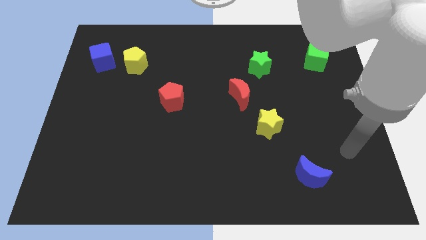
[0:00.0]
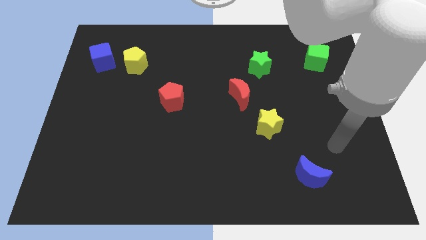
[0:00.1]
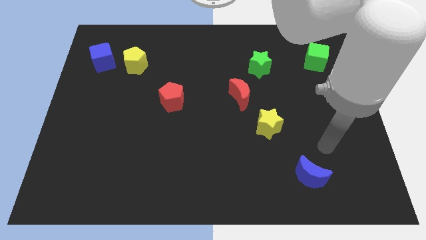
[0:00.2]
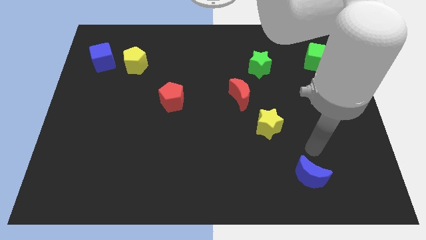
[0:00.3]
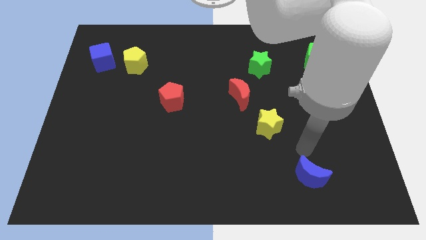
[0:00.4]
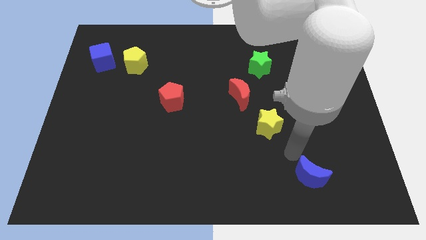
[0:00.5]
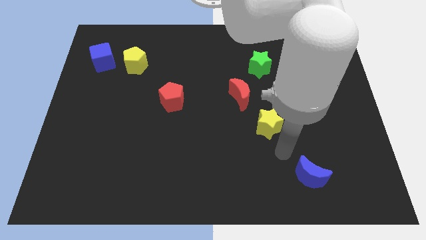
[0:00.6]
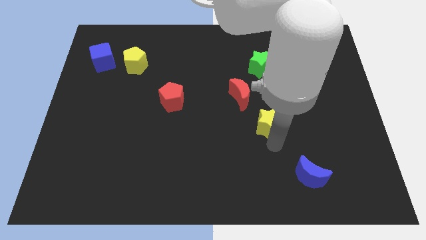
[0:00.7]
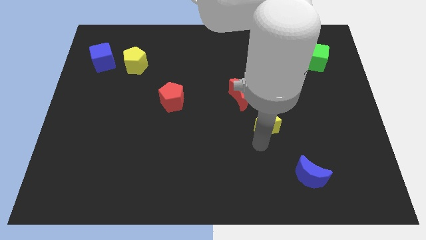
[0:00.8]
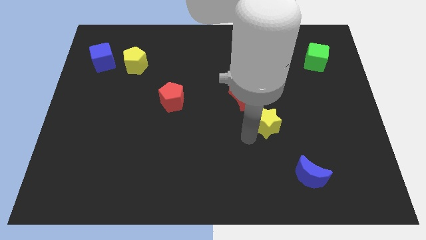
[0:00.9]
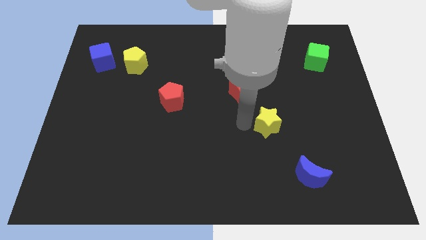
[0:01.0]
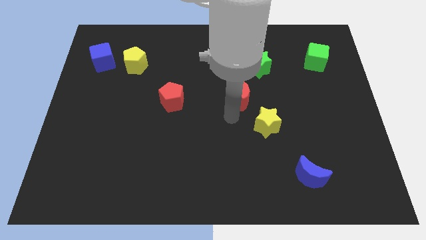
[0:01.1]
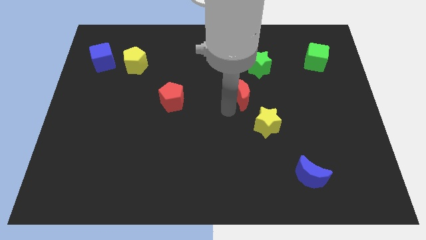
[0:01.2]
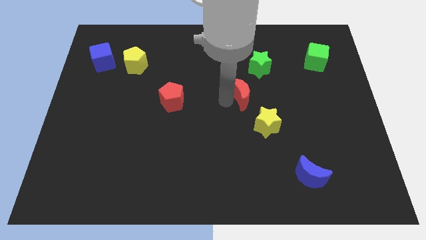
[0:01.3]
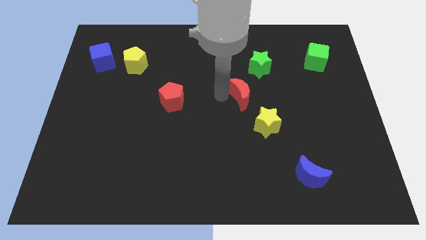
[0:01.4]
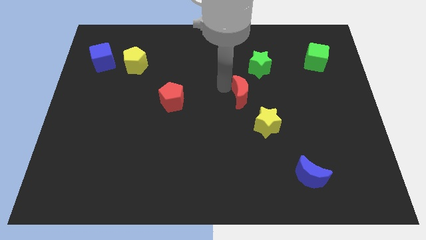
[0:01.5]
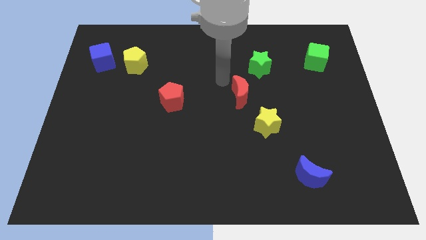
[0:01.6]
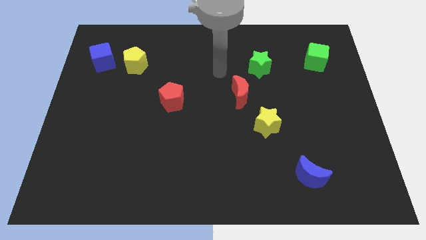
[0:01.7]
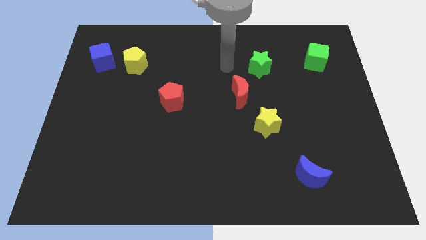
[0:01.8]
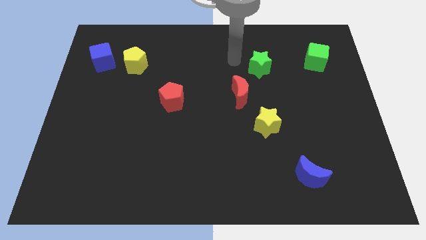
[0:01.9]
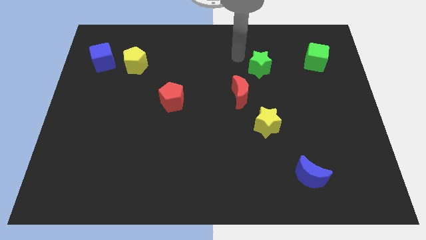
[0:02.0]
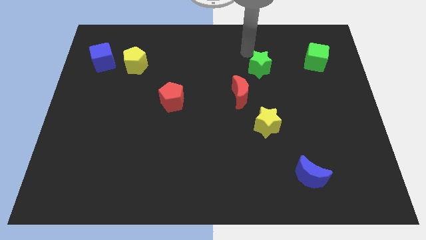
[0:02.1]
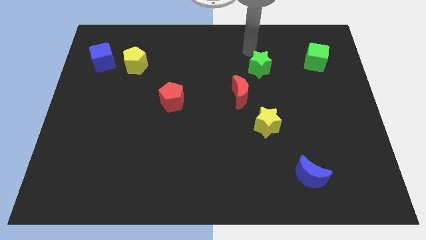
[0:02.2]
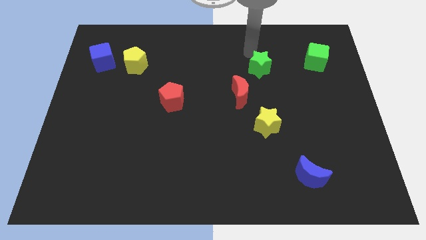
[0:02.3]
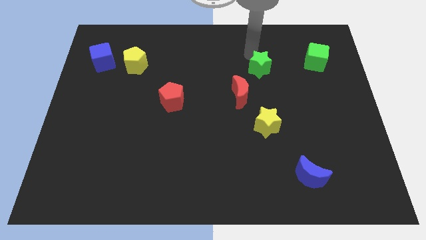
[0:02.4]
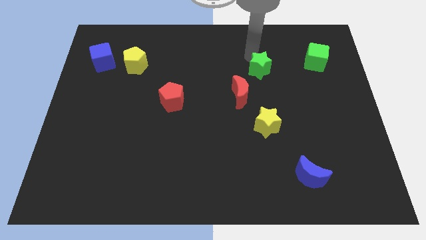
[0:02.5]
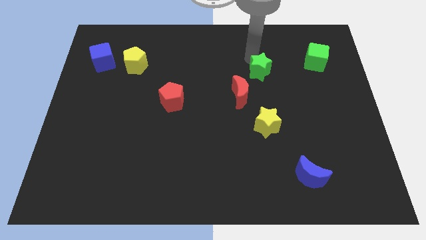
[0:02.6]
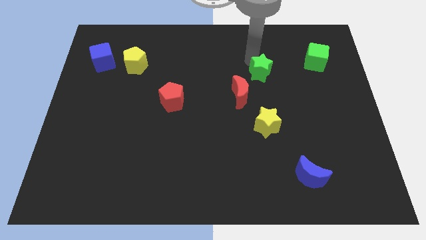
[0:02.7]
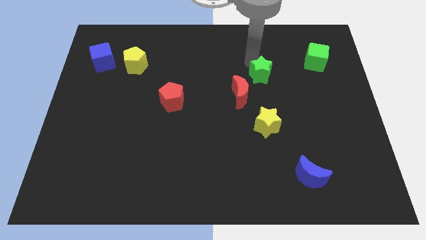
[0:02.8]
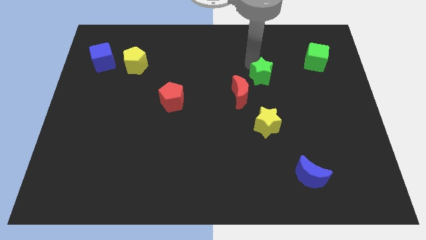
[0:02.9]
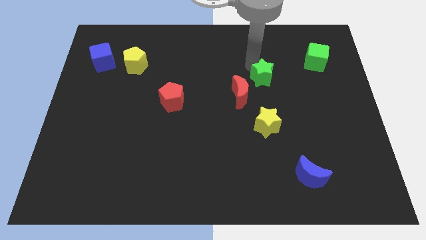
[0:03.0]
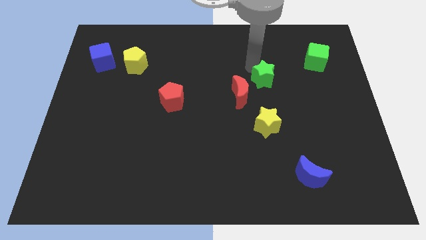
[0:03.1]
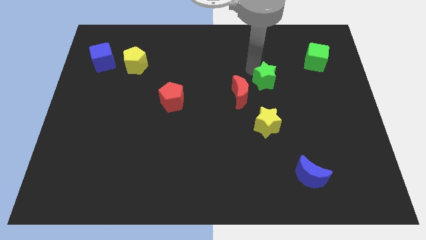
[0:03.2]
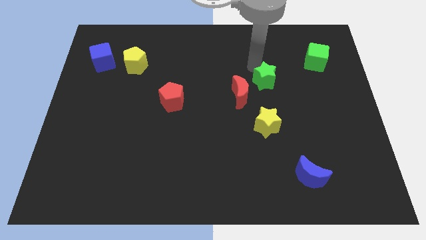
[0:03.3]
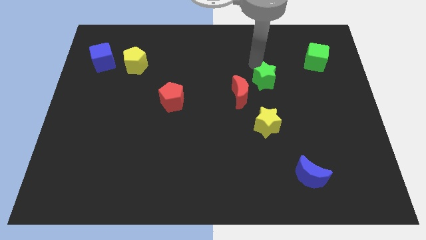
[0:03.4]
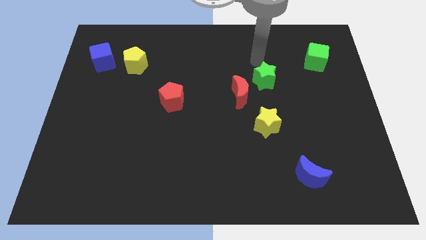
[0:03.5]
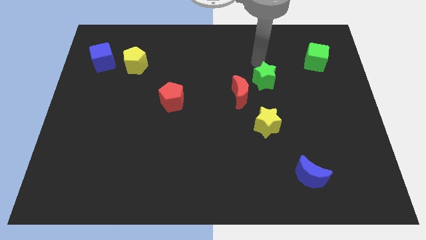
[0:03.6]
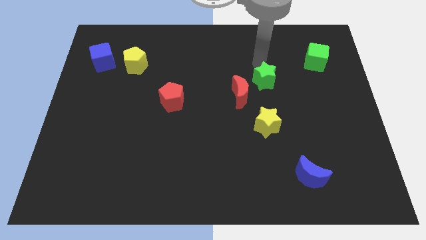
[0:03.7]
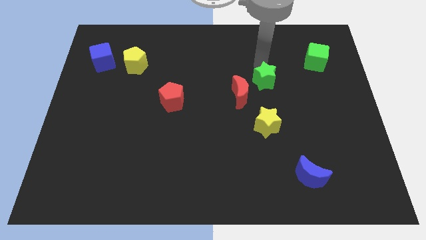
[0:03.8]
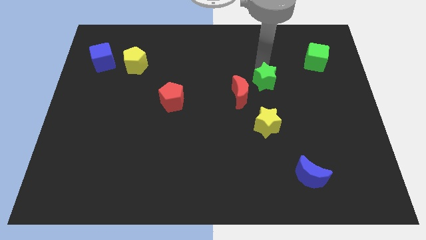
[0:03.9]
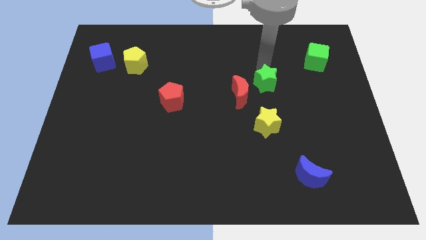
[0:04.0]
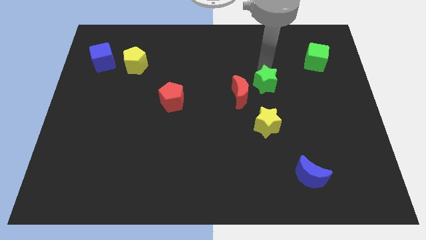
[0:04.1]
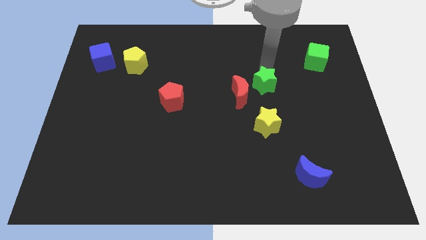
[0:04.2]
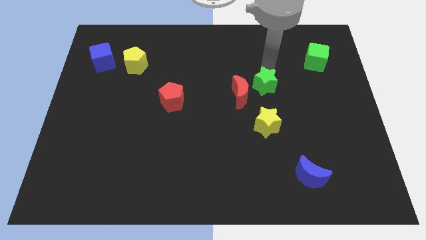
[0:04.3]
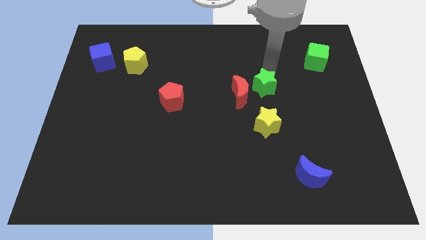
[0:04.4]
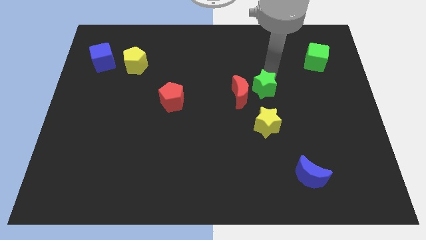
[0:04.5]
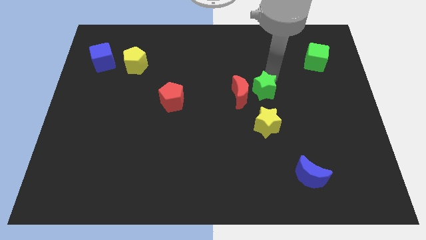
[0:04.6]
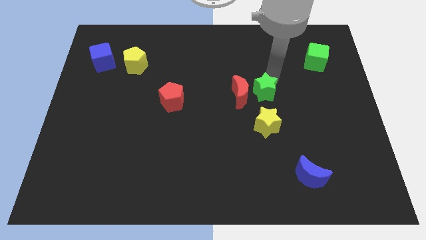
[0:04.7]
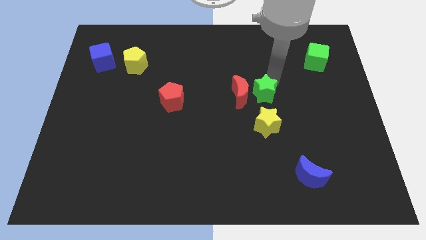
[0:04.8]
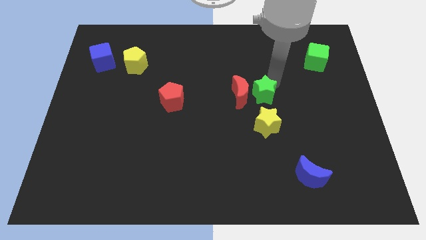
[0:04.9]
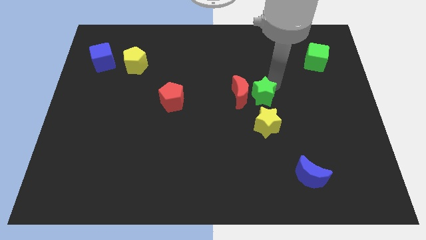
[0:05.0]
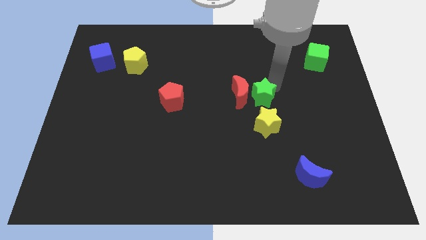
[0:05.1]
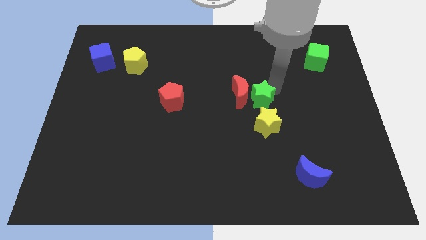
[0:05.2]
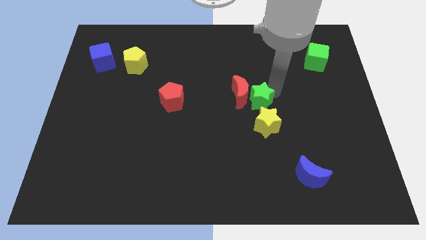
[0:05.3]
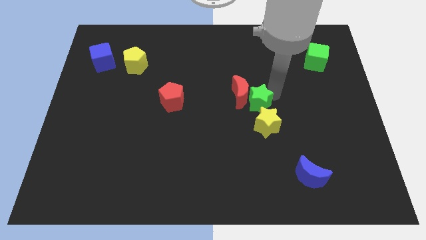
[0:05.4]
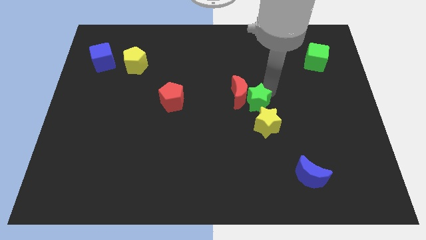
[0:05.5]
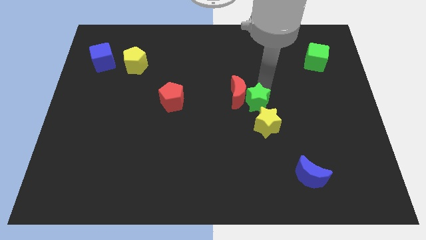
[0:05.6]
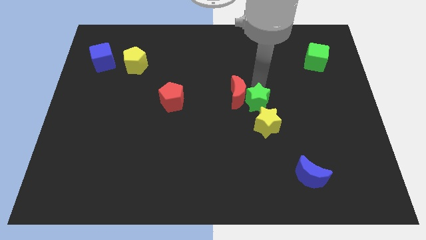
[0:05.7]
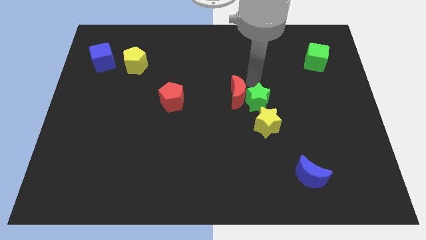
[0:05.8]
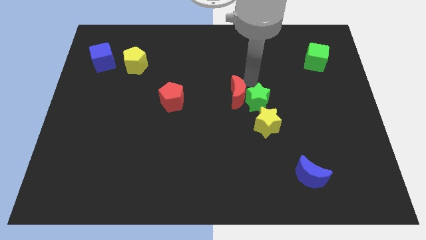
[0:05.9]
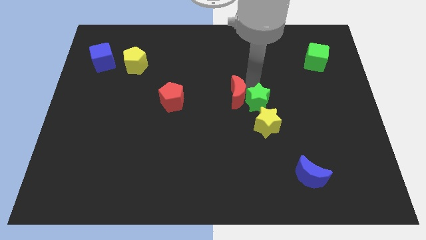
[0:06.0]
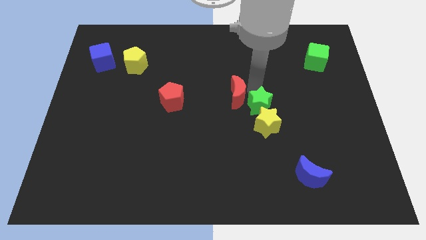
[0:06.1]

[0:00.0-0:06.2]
put the green star towards the yellow star

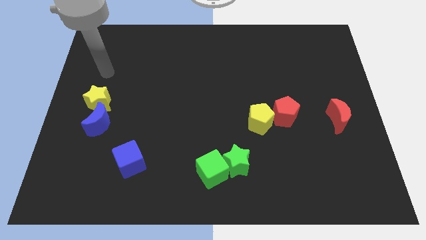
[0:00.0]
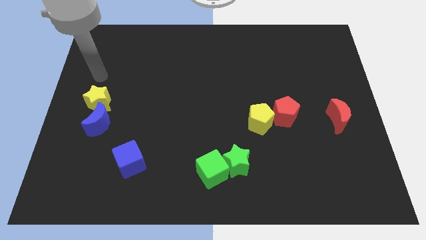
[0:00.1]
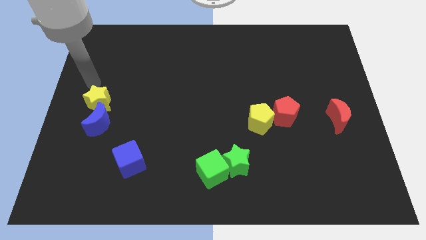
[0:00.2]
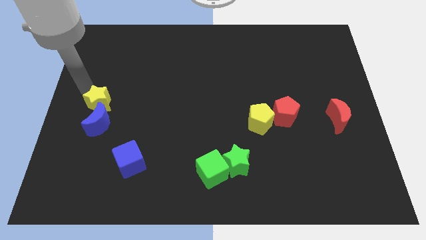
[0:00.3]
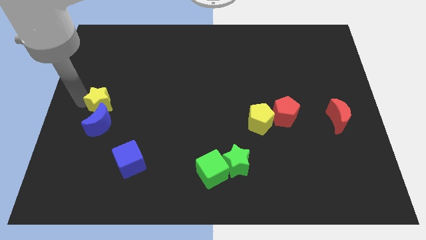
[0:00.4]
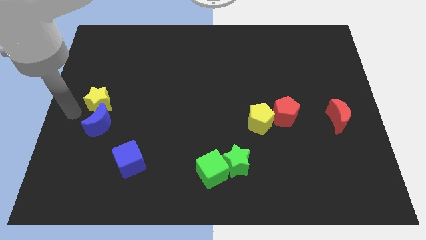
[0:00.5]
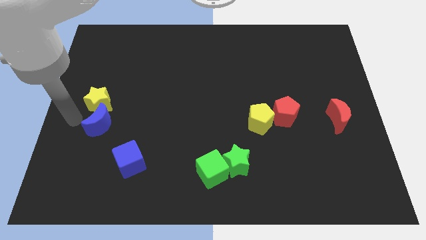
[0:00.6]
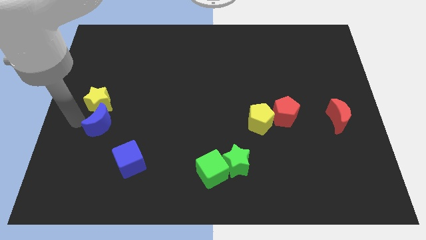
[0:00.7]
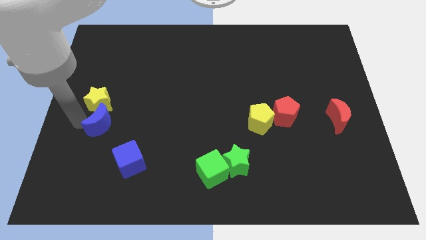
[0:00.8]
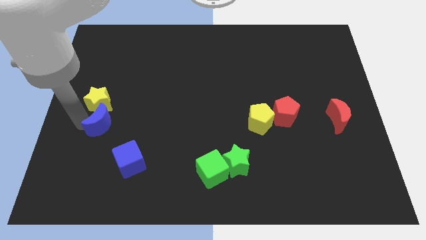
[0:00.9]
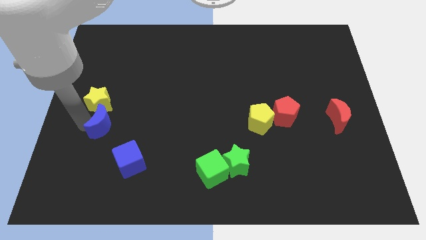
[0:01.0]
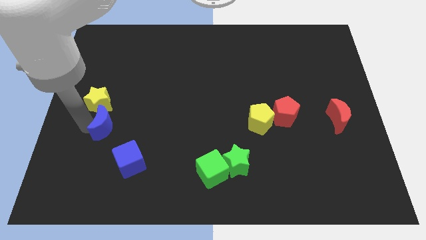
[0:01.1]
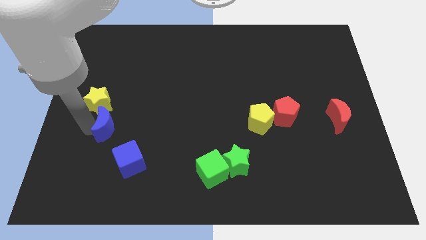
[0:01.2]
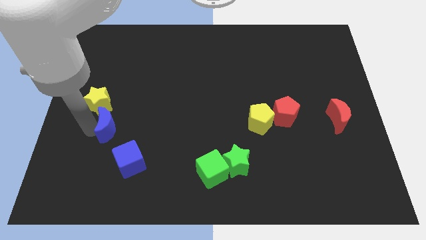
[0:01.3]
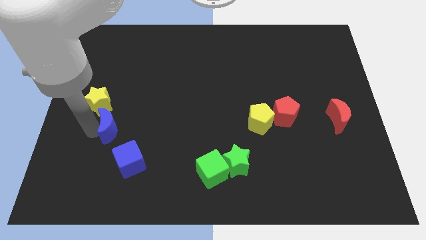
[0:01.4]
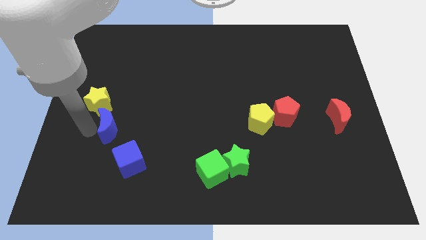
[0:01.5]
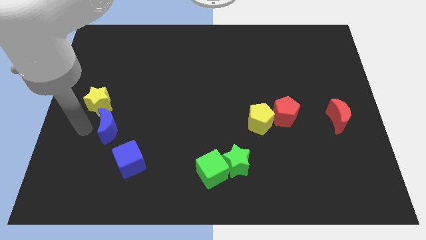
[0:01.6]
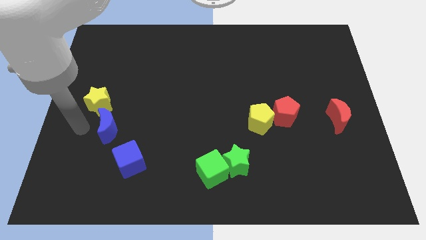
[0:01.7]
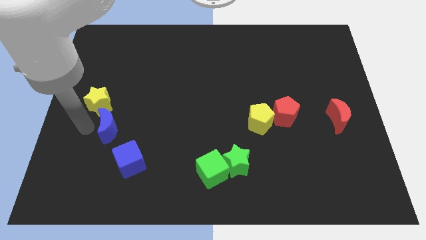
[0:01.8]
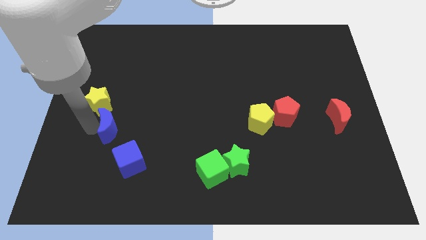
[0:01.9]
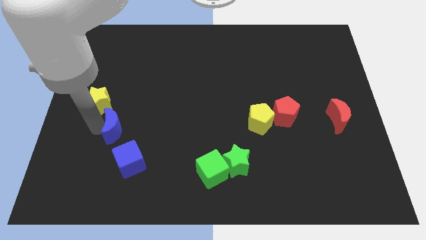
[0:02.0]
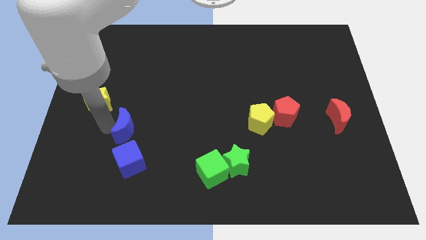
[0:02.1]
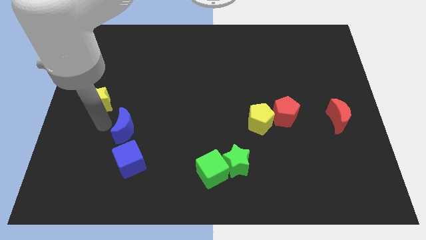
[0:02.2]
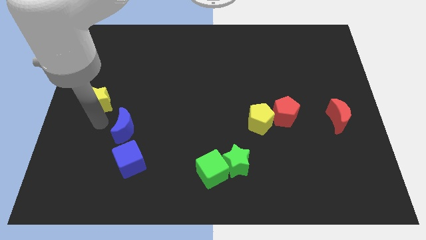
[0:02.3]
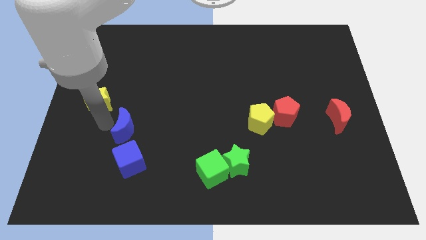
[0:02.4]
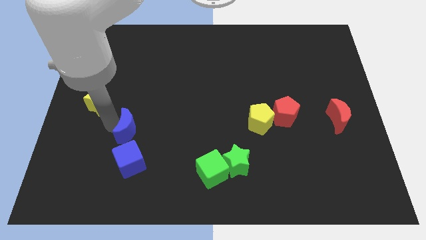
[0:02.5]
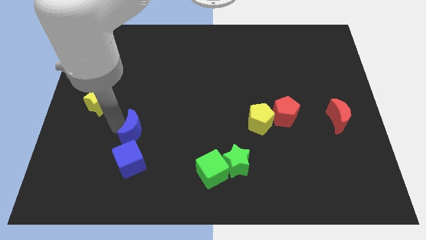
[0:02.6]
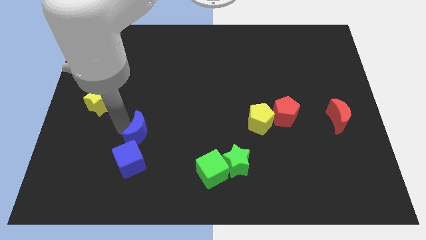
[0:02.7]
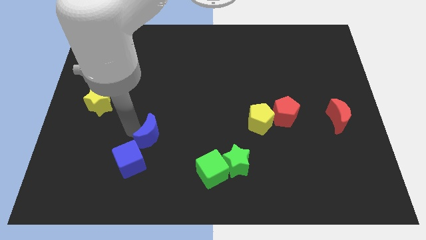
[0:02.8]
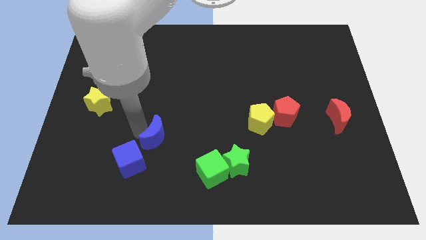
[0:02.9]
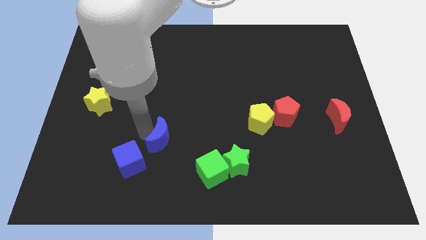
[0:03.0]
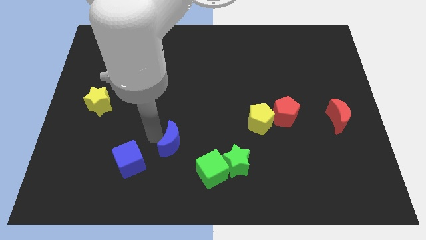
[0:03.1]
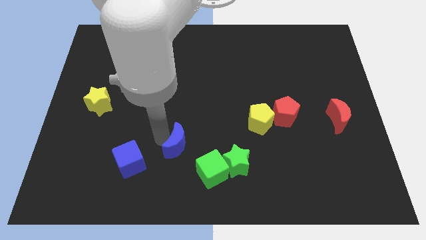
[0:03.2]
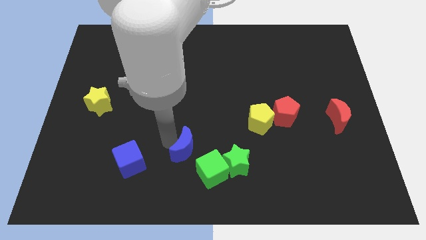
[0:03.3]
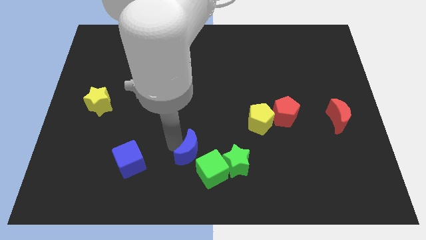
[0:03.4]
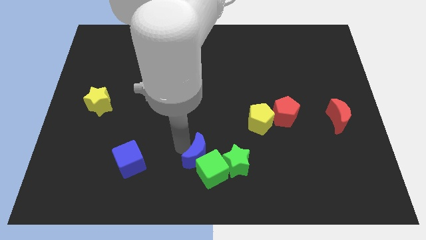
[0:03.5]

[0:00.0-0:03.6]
slide the blue moon towards the green cube
